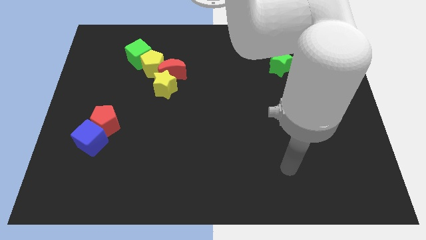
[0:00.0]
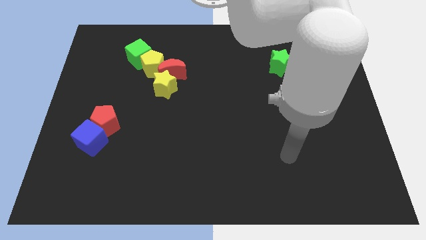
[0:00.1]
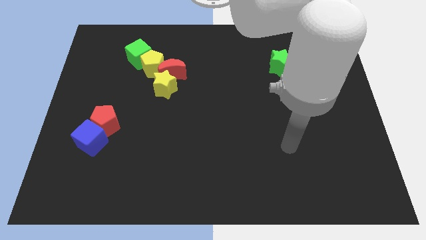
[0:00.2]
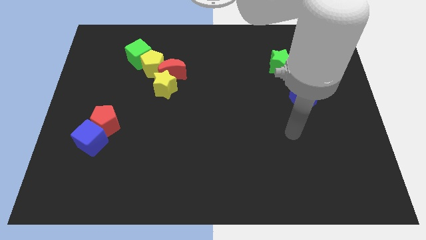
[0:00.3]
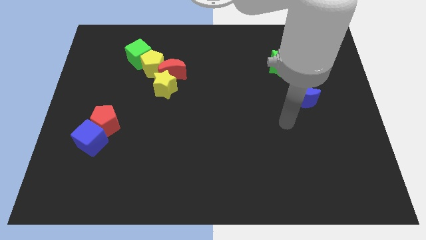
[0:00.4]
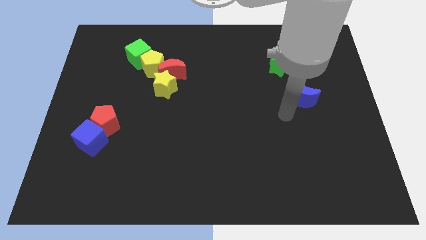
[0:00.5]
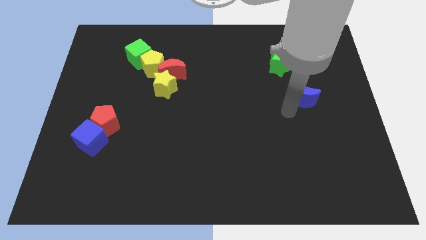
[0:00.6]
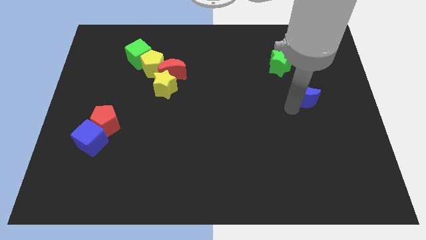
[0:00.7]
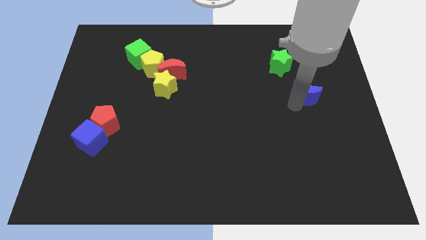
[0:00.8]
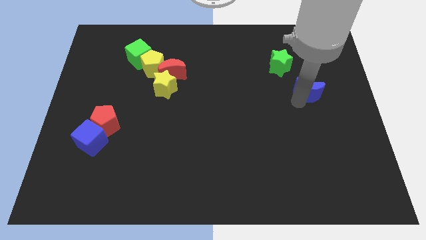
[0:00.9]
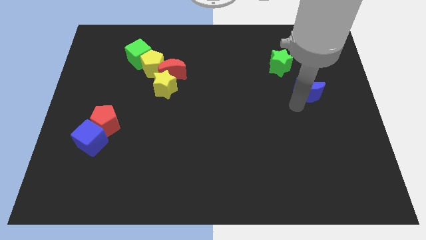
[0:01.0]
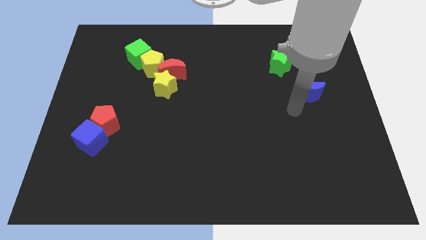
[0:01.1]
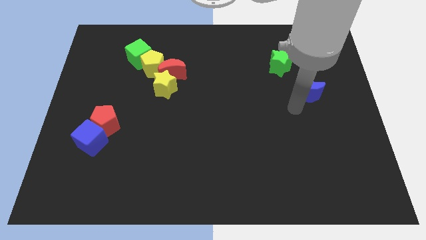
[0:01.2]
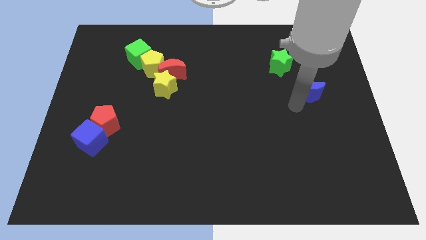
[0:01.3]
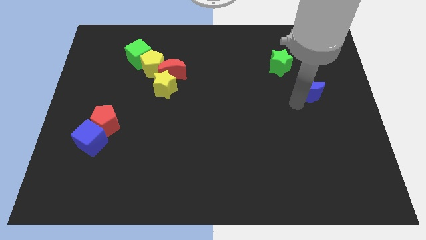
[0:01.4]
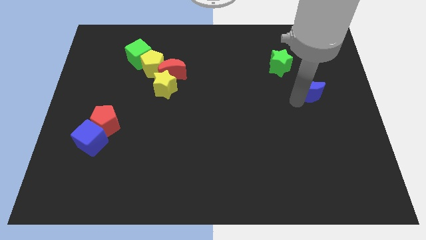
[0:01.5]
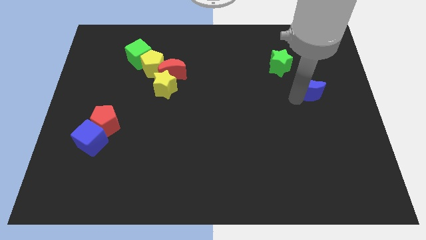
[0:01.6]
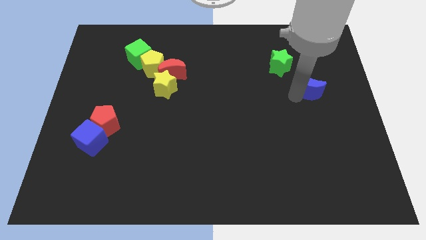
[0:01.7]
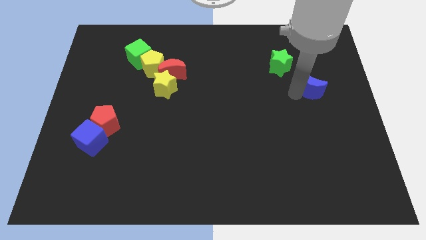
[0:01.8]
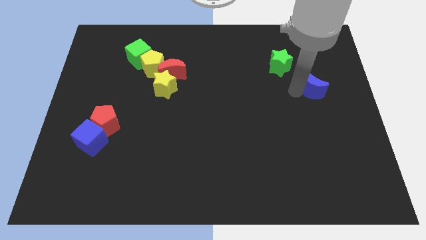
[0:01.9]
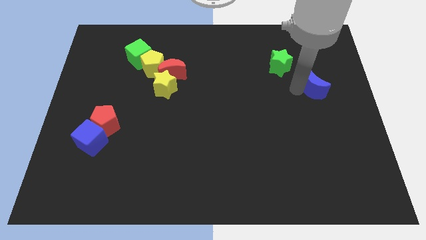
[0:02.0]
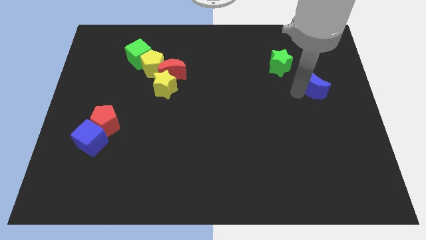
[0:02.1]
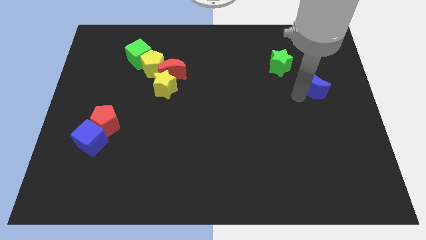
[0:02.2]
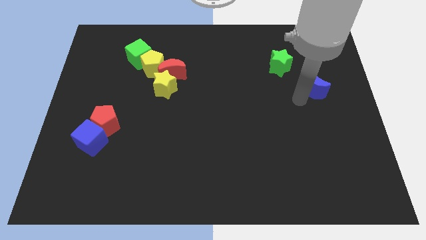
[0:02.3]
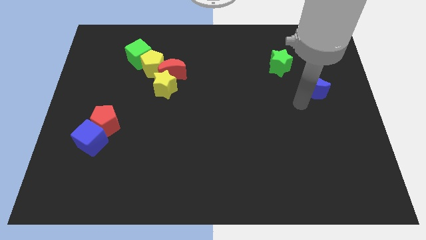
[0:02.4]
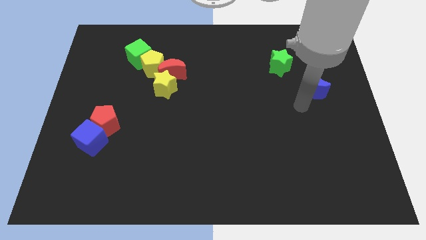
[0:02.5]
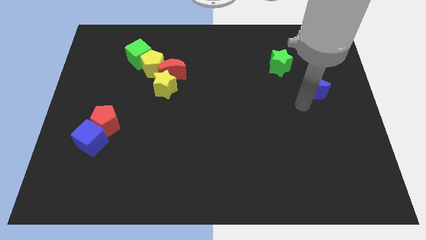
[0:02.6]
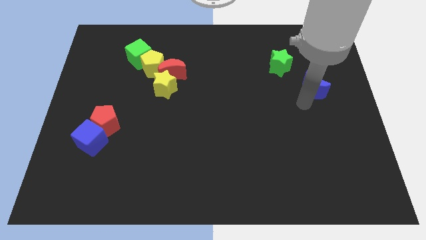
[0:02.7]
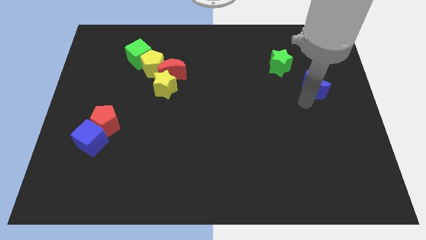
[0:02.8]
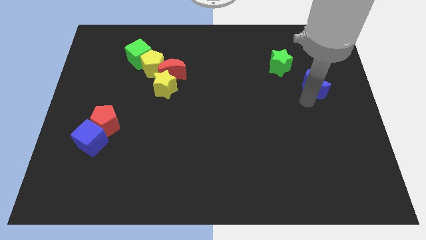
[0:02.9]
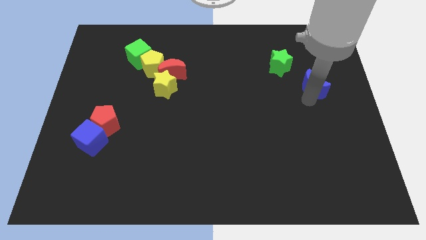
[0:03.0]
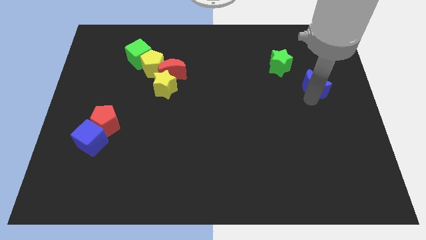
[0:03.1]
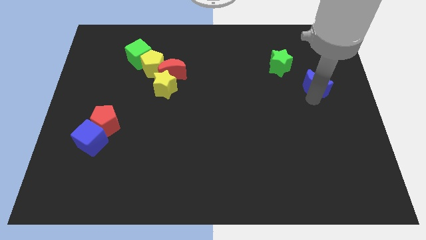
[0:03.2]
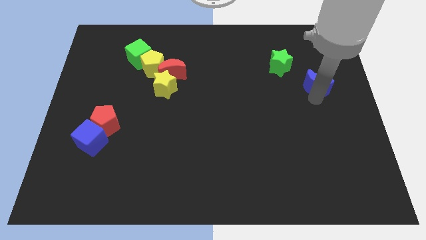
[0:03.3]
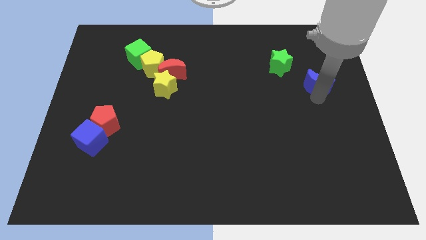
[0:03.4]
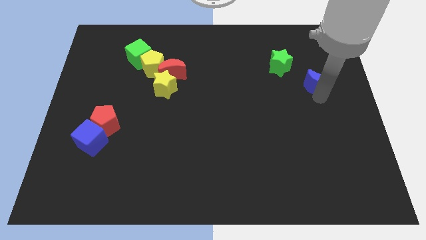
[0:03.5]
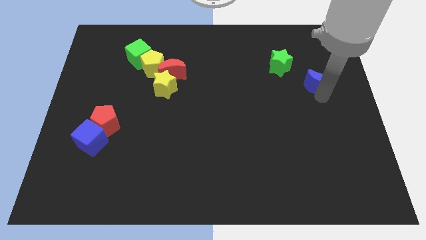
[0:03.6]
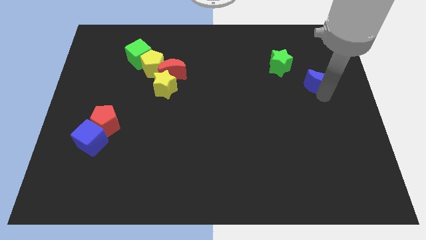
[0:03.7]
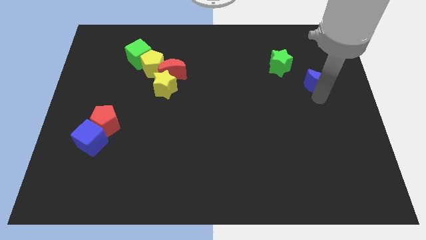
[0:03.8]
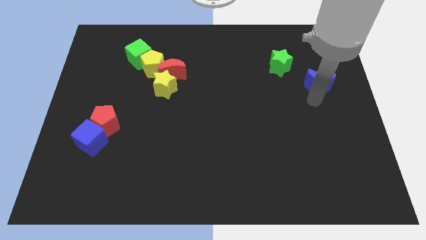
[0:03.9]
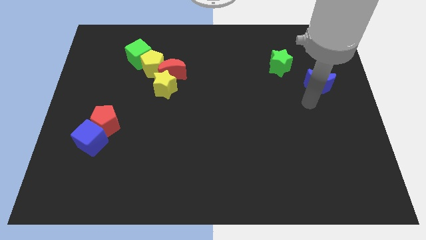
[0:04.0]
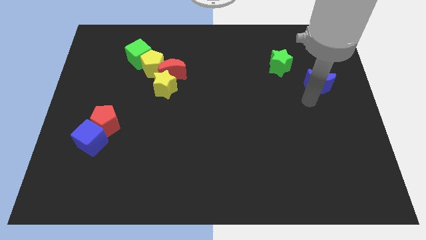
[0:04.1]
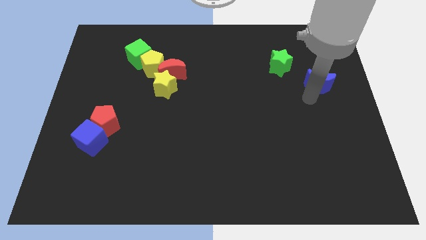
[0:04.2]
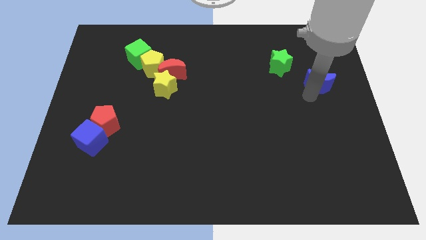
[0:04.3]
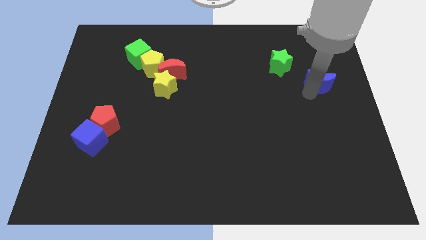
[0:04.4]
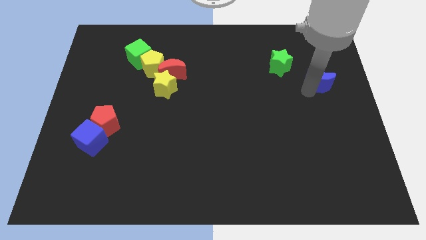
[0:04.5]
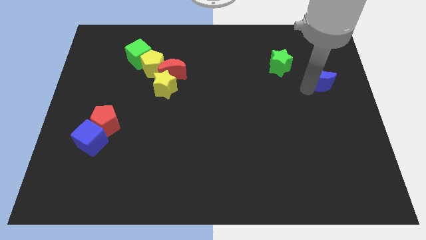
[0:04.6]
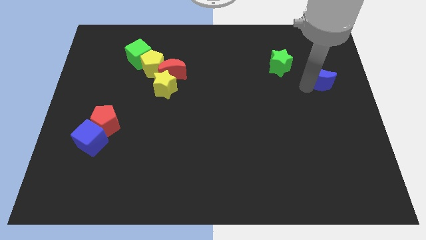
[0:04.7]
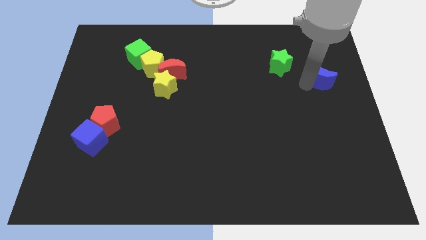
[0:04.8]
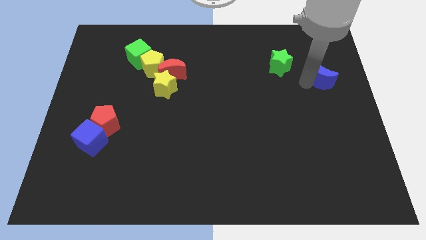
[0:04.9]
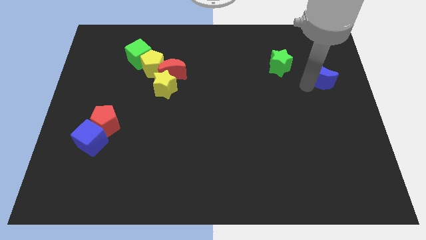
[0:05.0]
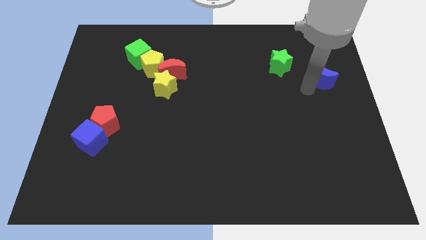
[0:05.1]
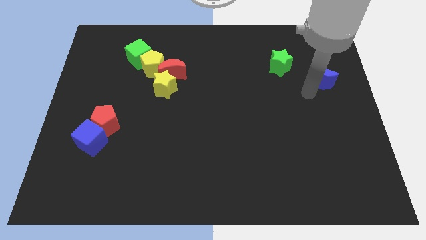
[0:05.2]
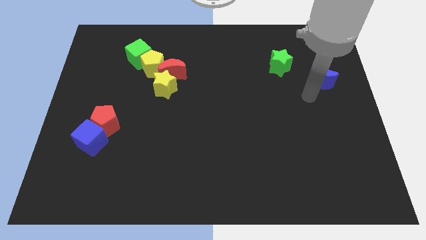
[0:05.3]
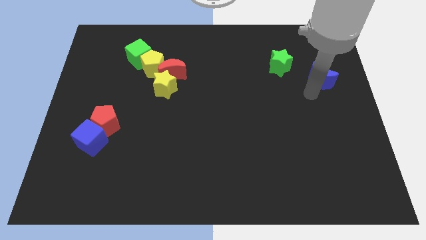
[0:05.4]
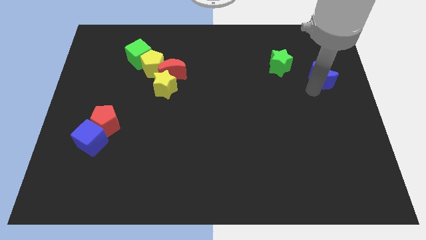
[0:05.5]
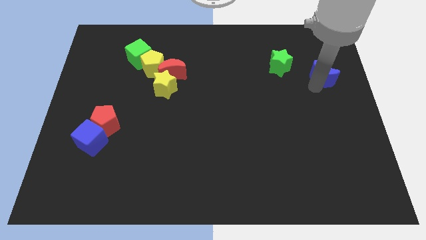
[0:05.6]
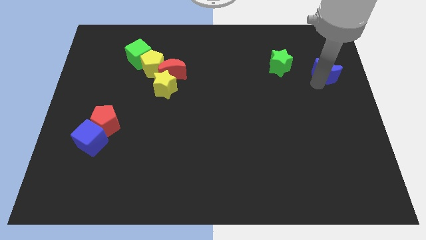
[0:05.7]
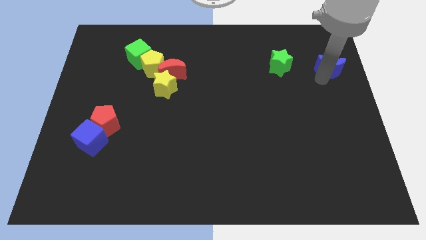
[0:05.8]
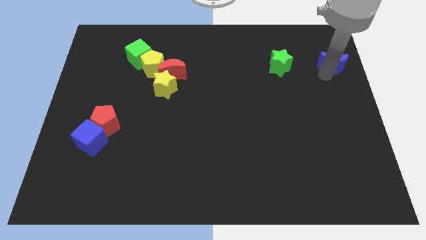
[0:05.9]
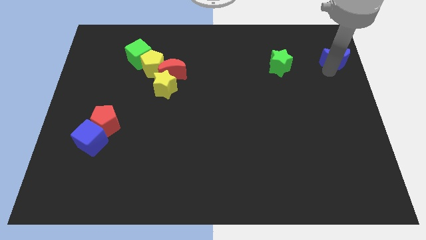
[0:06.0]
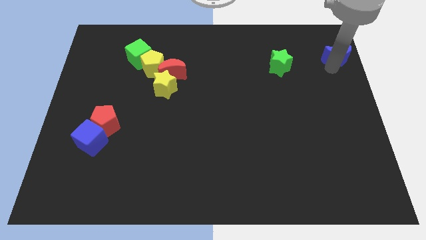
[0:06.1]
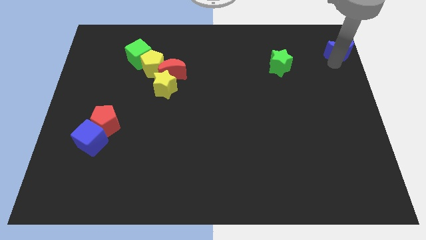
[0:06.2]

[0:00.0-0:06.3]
put the blue moon to the upper right corner

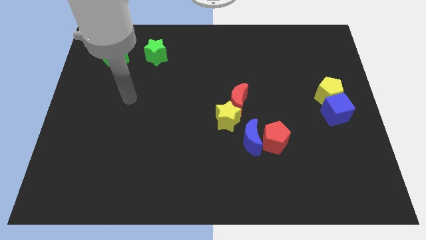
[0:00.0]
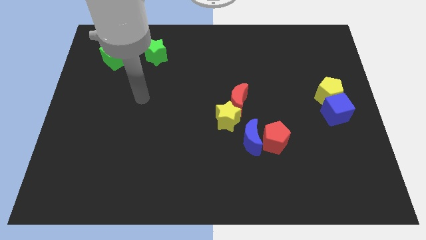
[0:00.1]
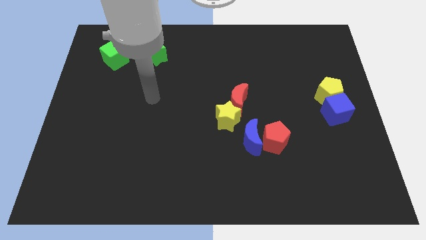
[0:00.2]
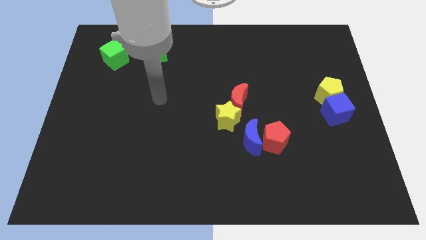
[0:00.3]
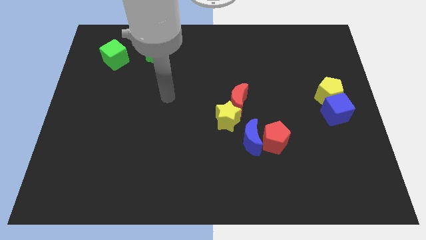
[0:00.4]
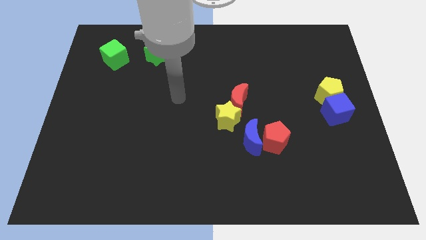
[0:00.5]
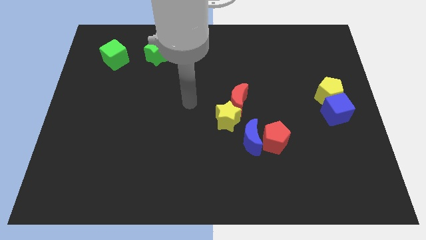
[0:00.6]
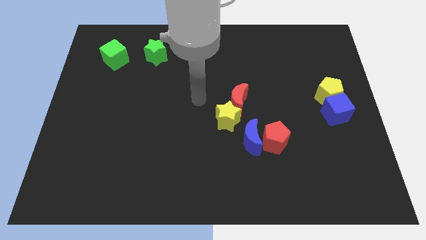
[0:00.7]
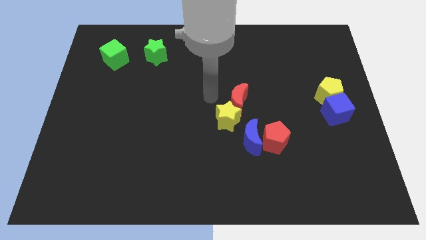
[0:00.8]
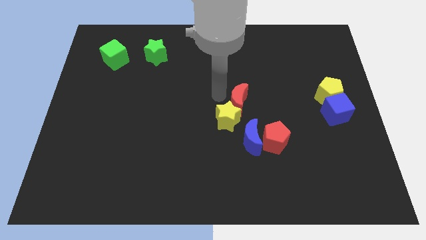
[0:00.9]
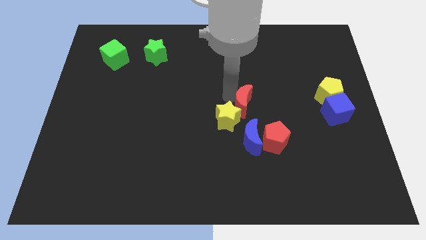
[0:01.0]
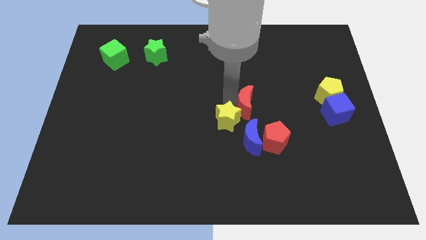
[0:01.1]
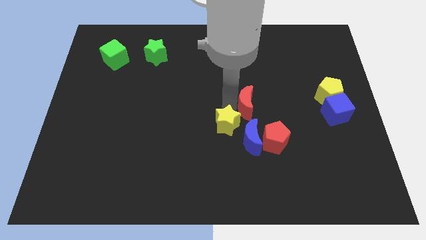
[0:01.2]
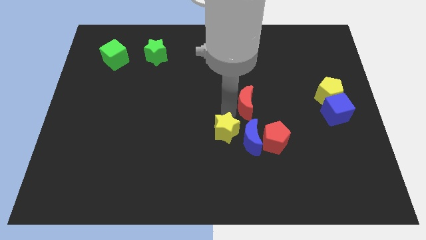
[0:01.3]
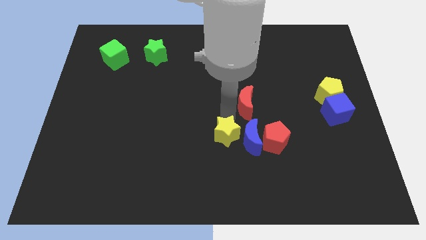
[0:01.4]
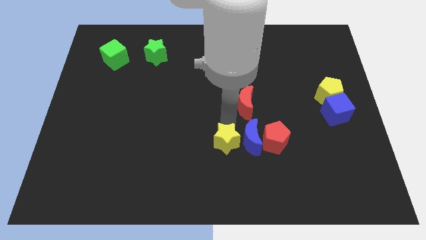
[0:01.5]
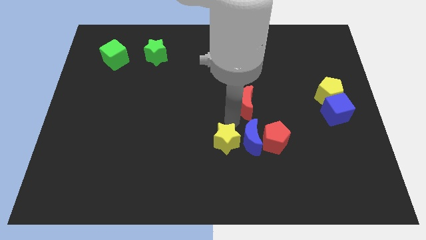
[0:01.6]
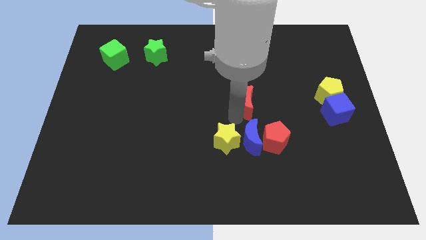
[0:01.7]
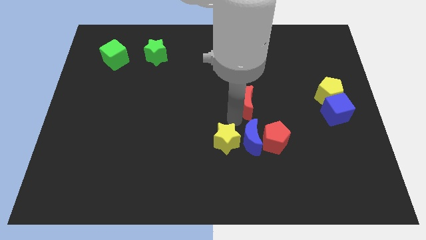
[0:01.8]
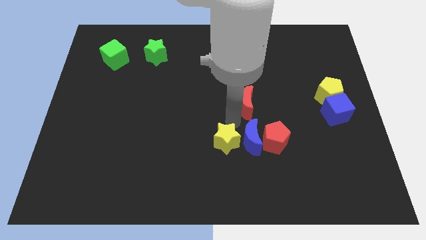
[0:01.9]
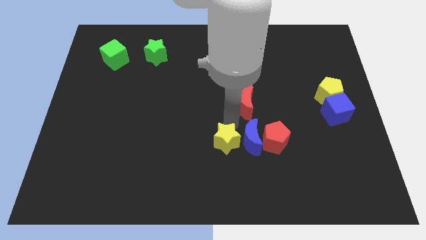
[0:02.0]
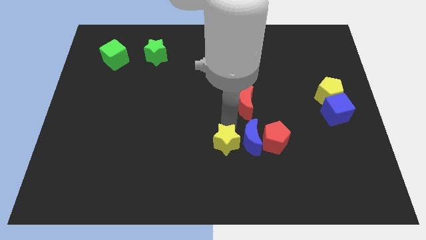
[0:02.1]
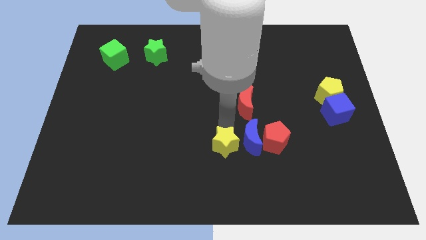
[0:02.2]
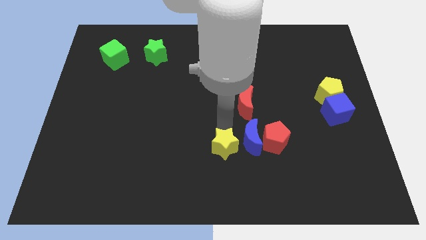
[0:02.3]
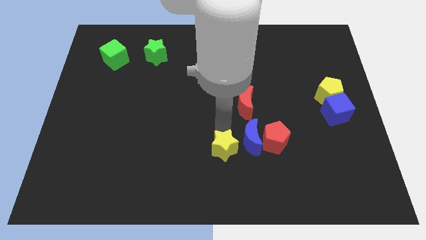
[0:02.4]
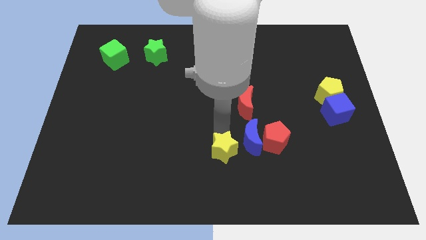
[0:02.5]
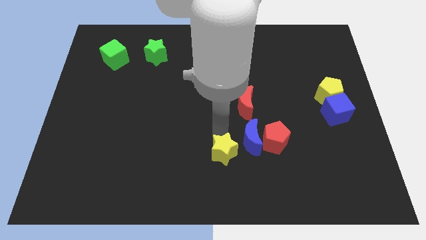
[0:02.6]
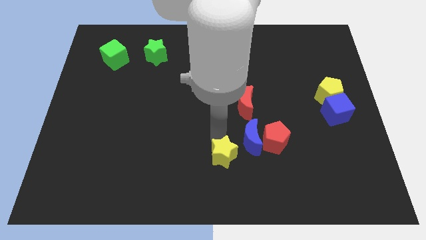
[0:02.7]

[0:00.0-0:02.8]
put the yellow star to the bottom
